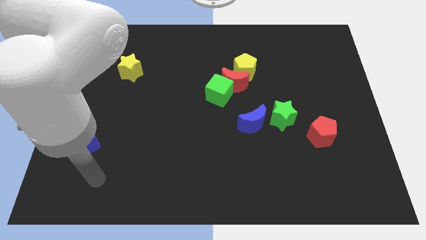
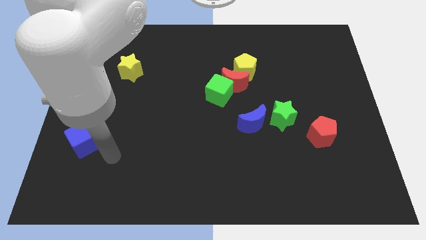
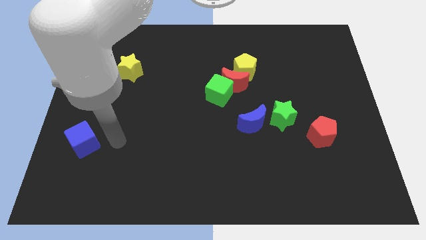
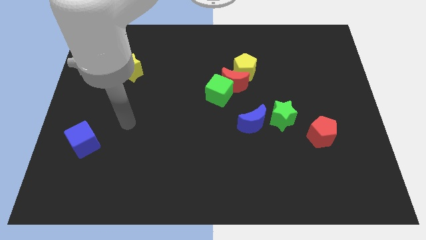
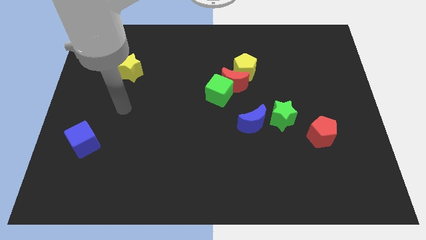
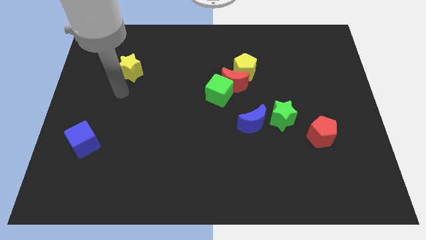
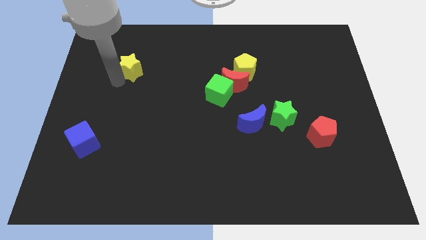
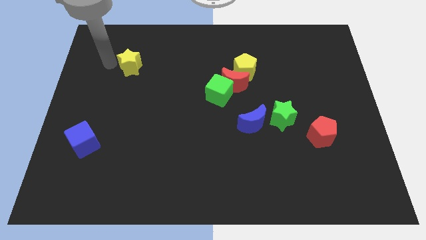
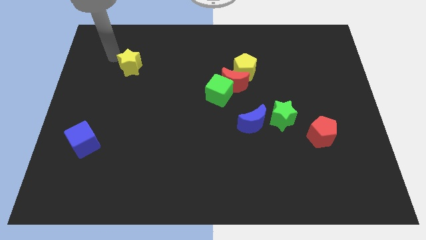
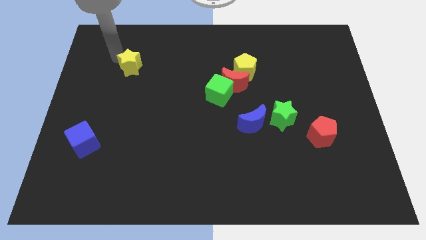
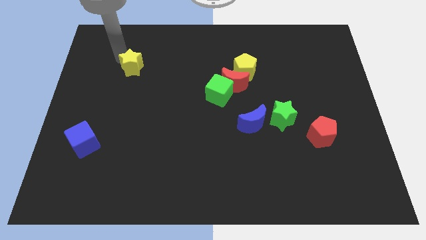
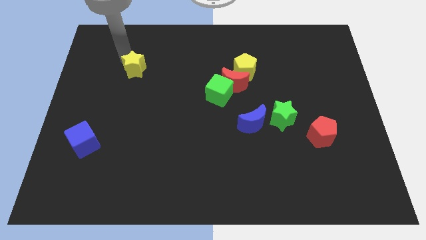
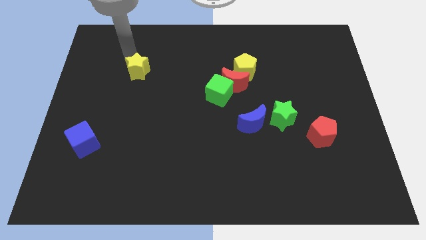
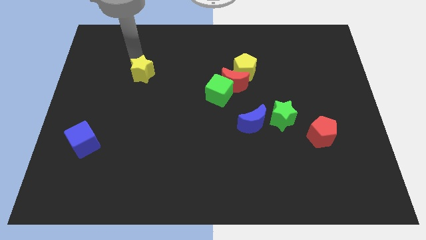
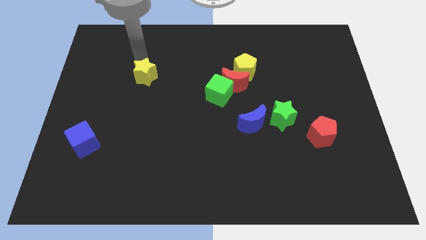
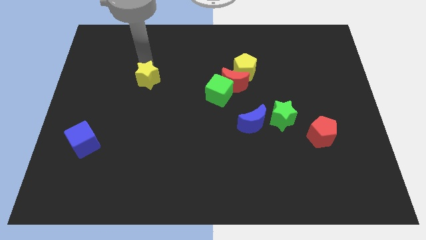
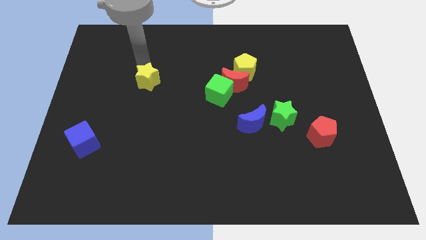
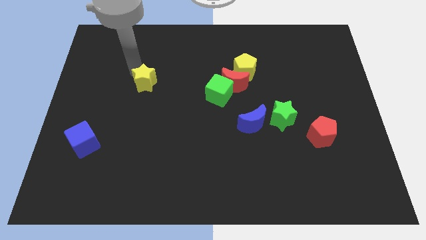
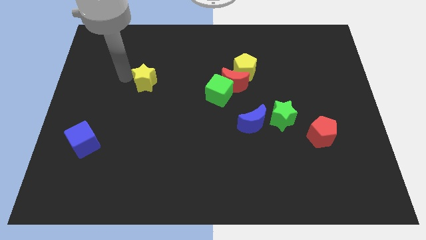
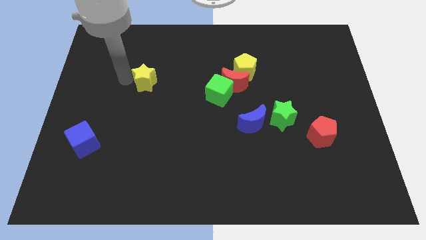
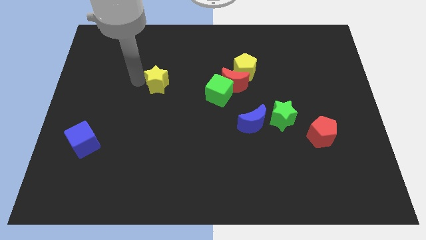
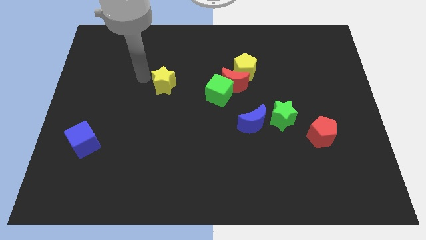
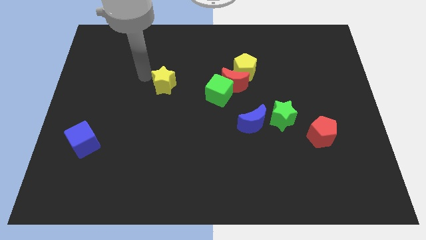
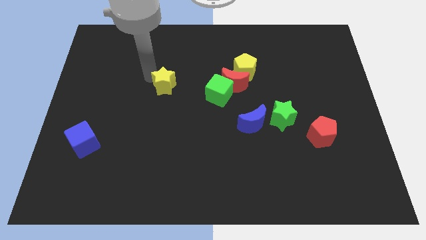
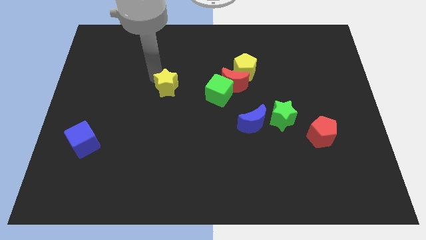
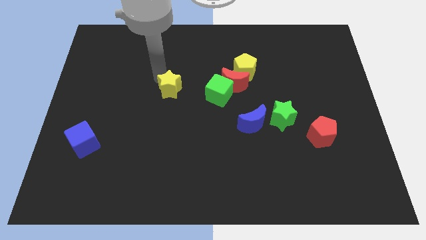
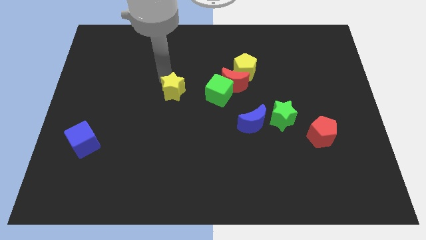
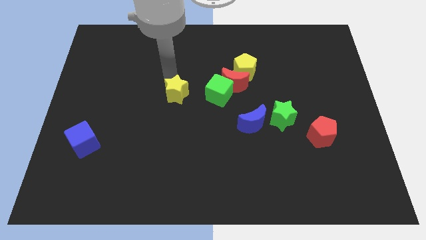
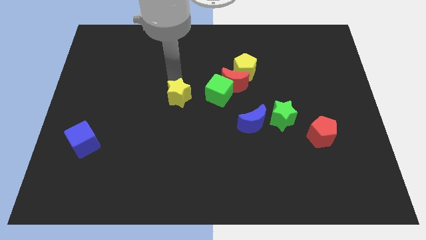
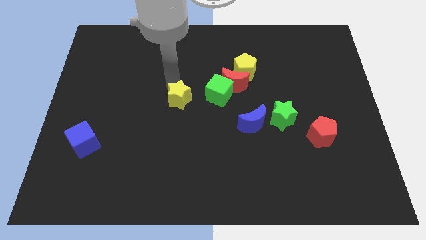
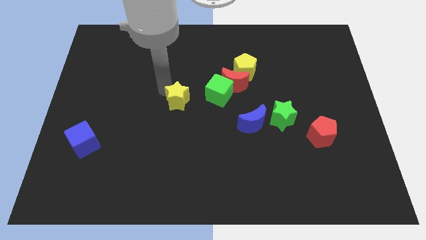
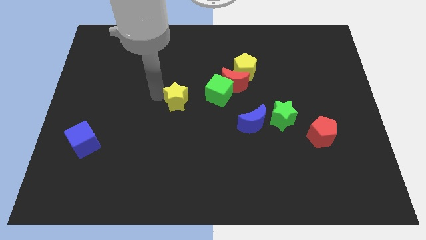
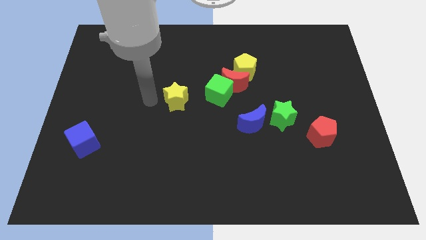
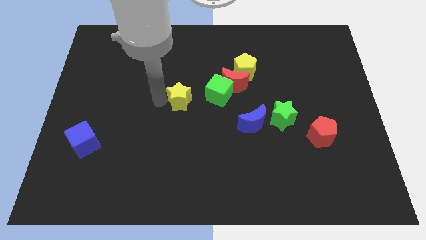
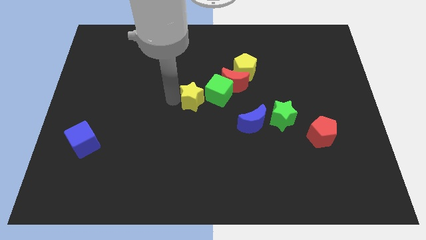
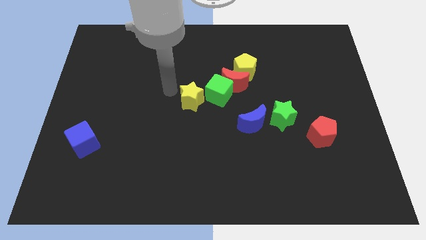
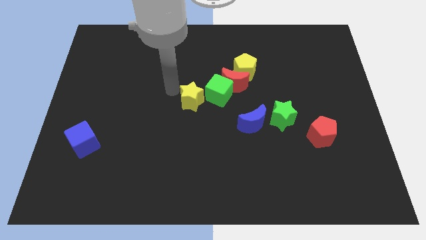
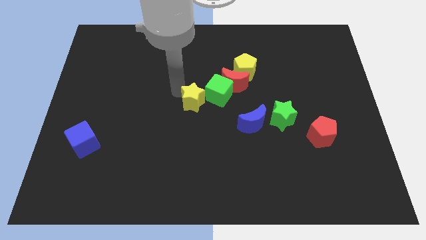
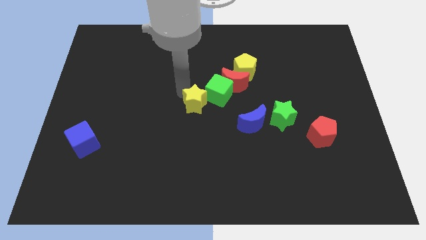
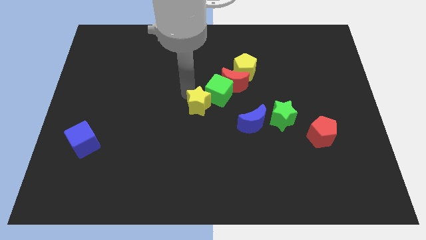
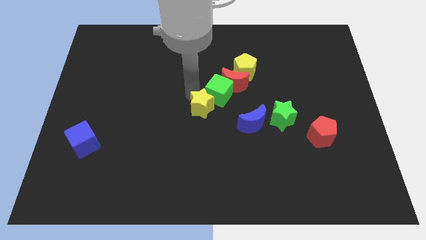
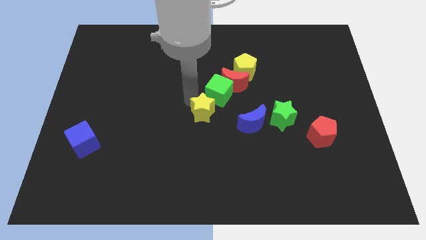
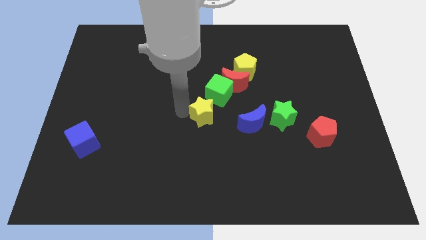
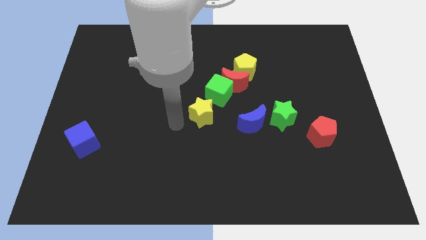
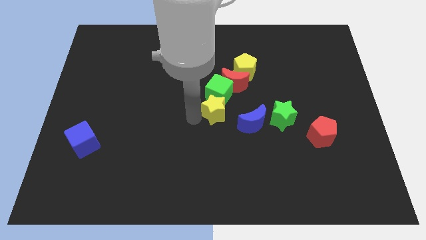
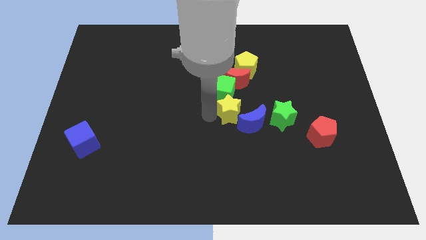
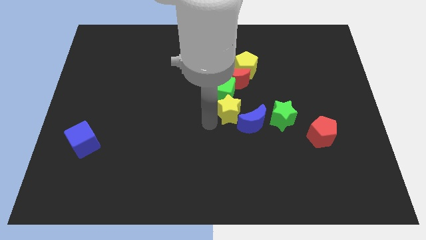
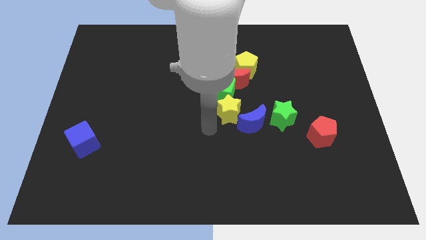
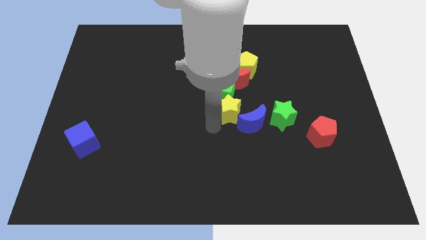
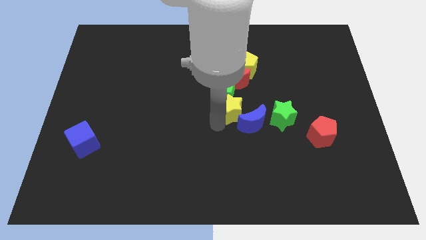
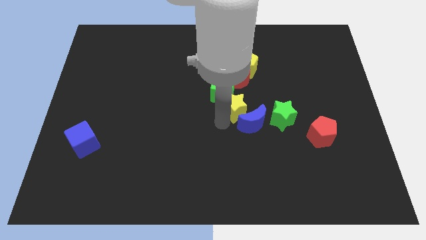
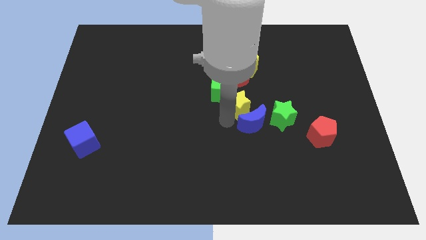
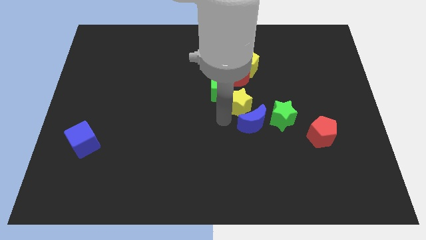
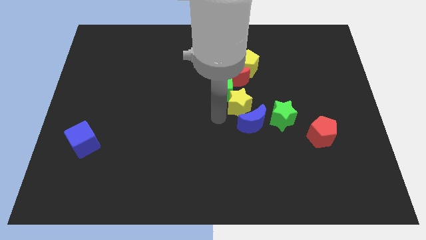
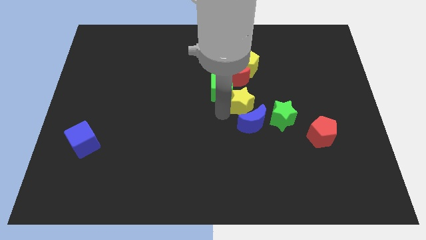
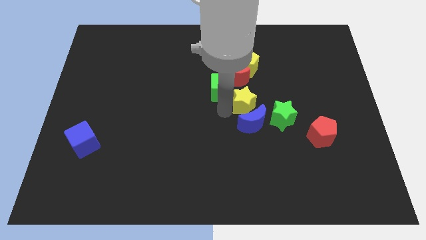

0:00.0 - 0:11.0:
move the yellow star to the bottom right of the red moon

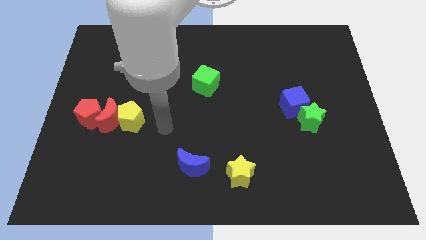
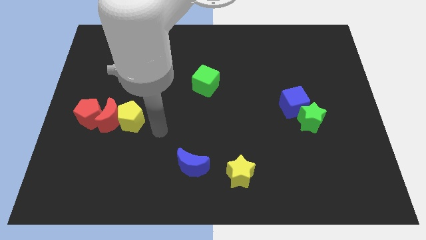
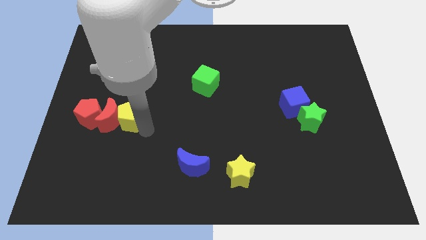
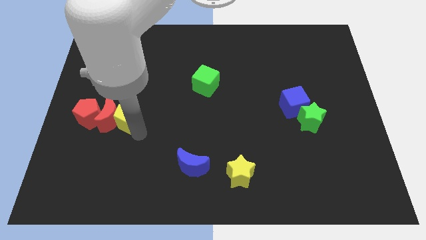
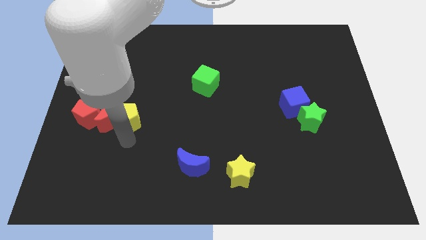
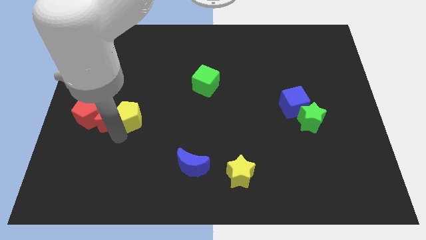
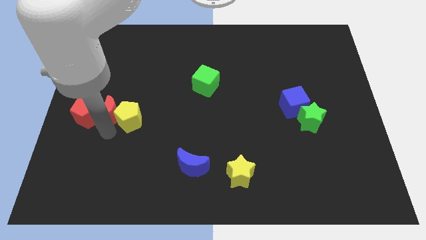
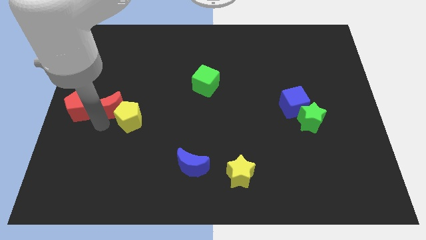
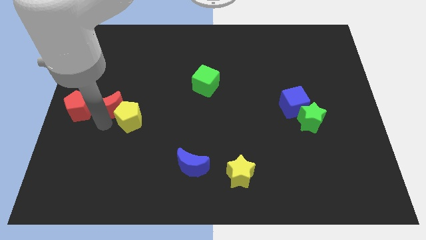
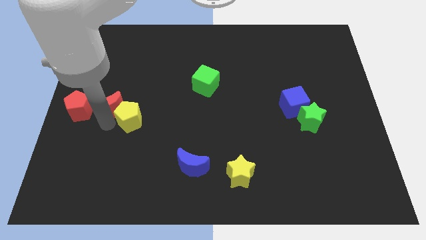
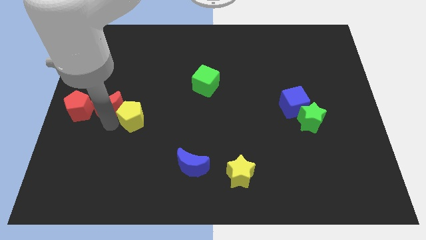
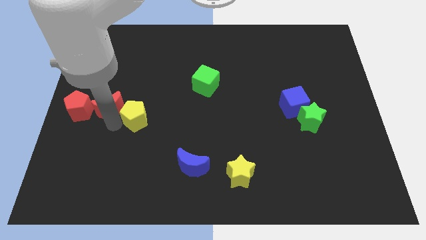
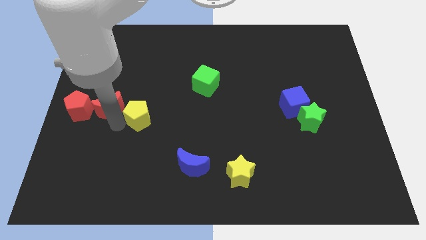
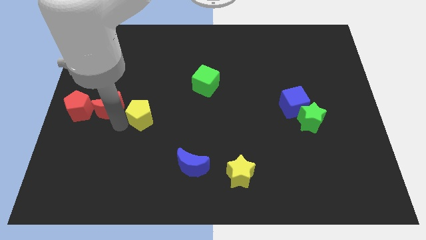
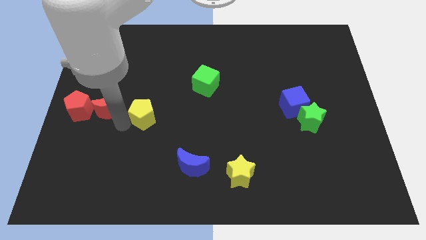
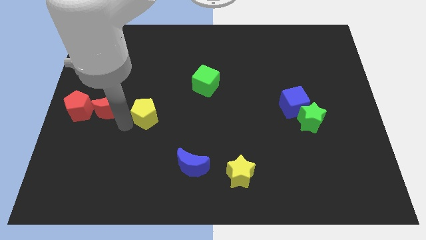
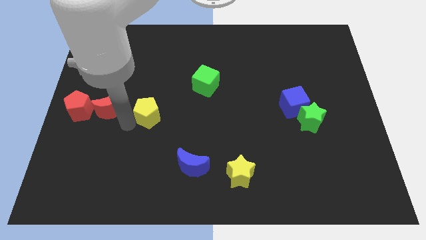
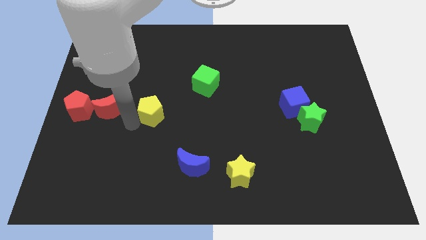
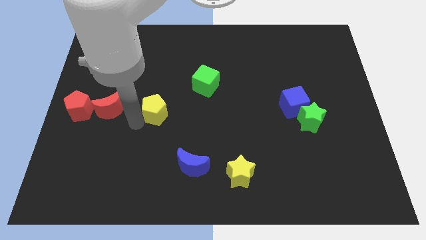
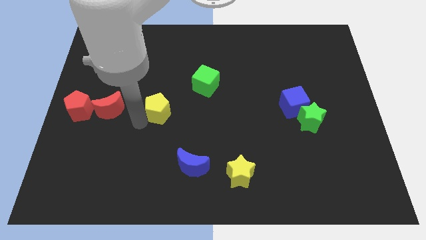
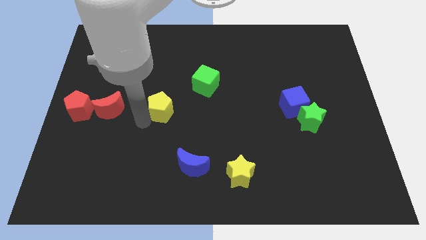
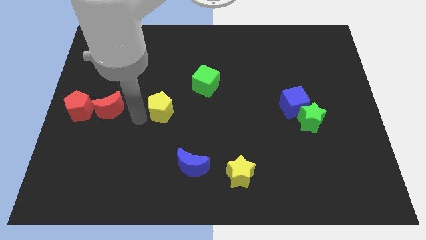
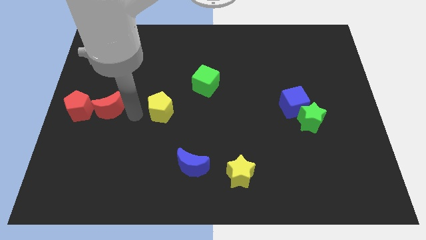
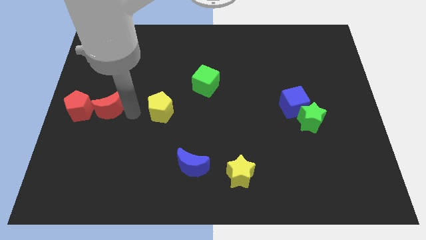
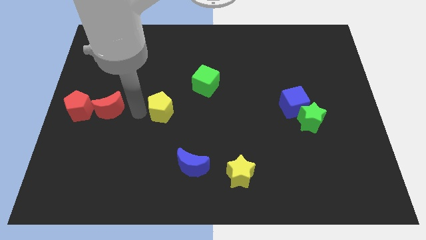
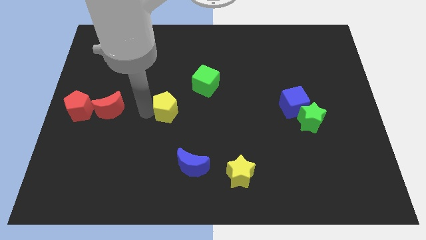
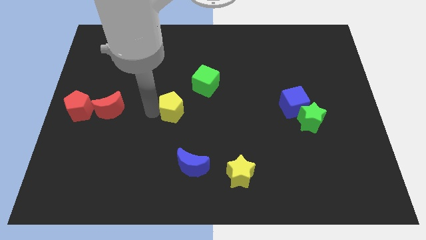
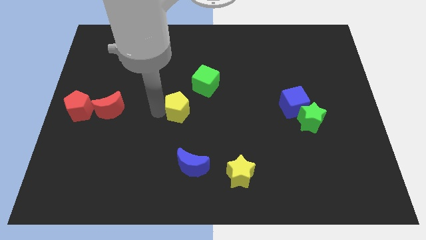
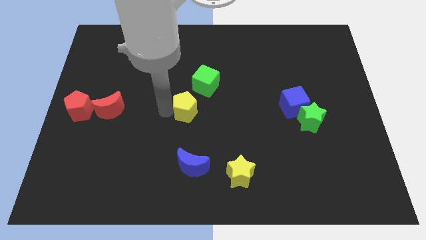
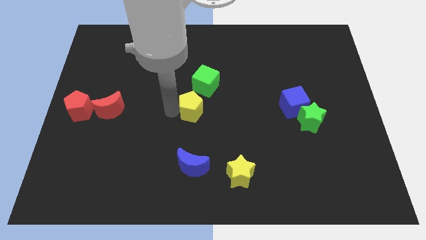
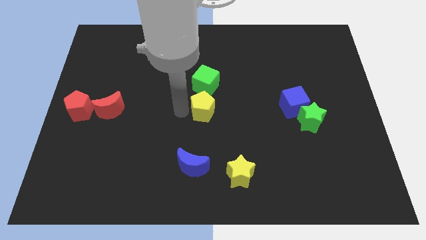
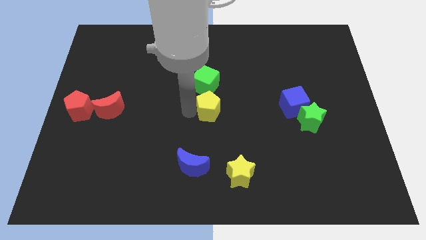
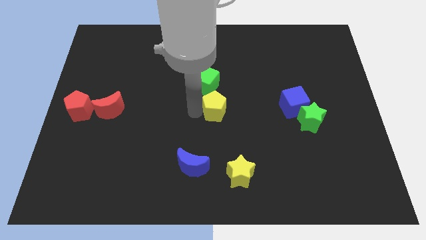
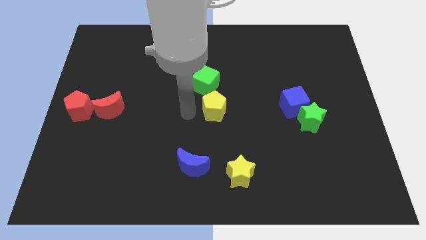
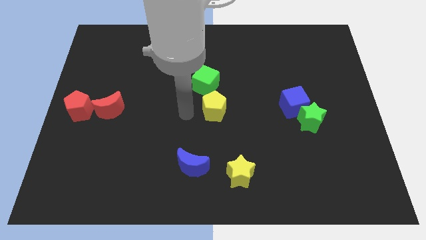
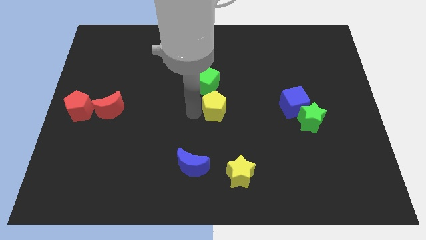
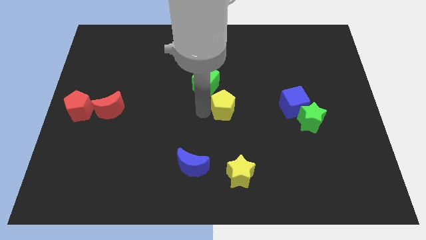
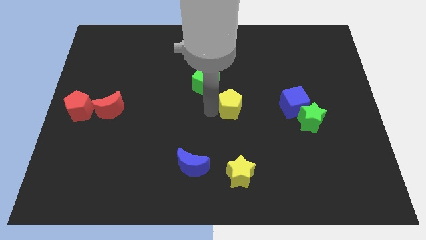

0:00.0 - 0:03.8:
move the yellow pentagon to the left of the blue cube
